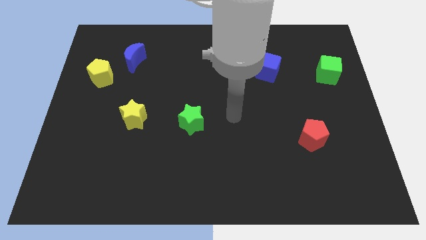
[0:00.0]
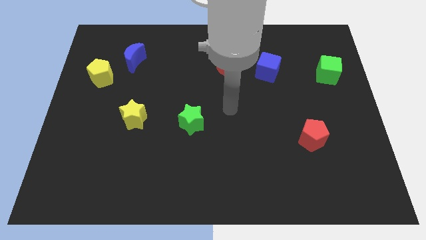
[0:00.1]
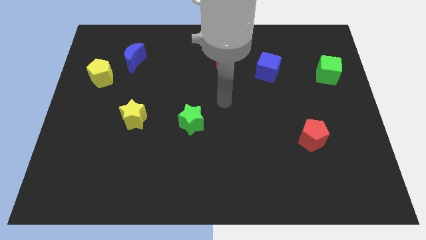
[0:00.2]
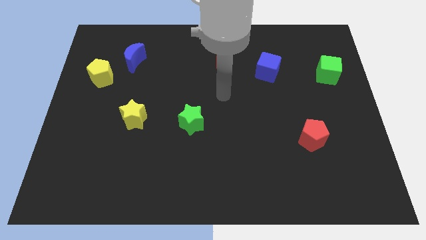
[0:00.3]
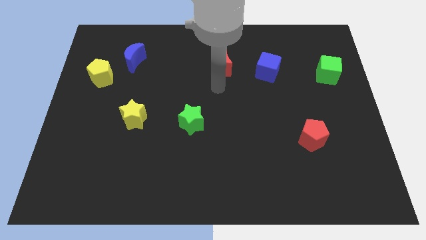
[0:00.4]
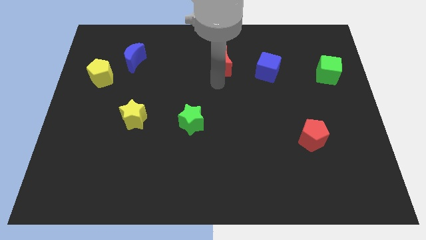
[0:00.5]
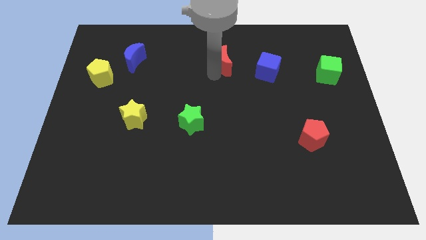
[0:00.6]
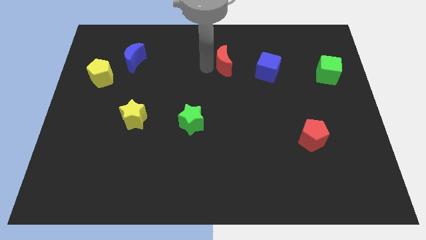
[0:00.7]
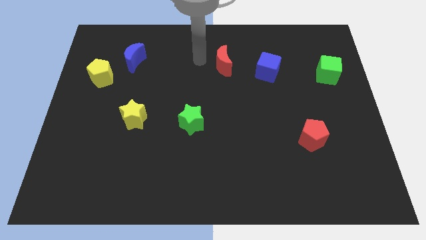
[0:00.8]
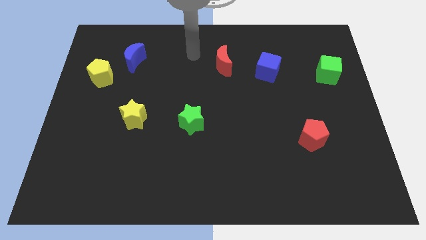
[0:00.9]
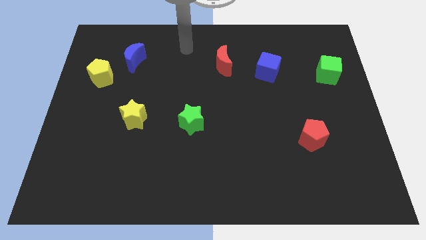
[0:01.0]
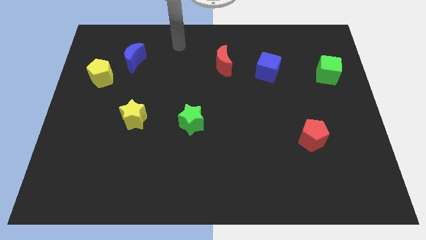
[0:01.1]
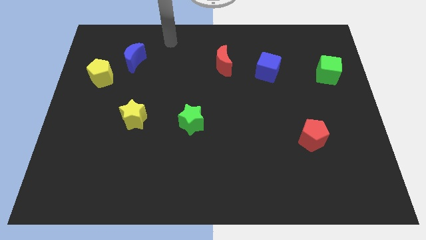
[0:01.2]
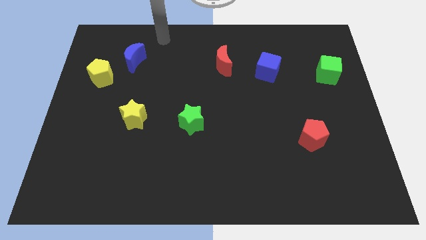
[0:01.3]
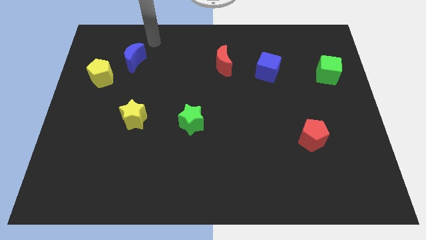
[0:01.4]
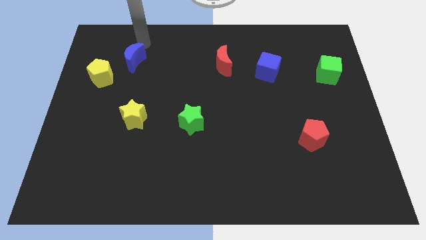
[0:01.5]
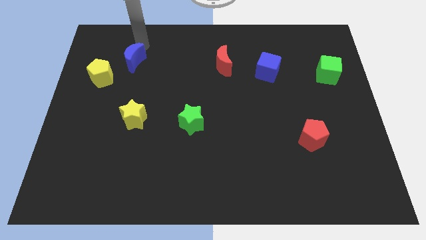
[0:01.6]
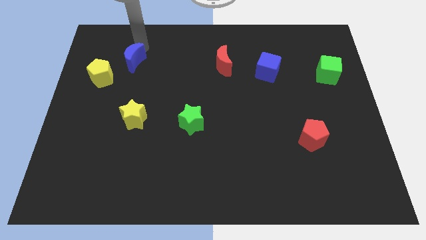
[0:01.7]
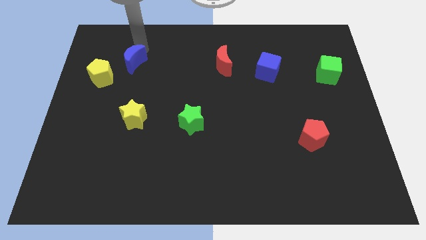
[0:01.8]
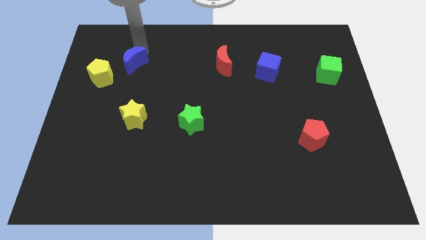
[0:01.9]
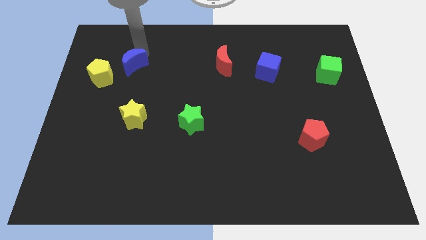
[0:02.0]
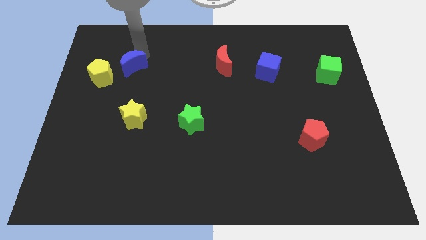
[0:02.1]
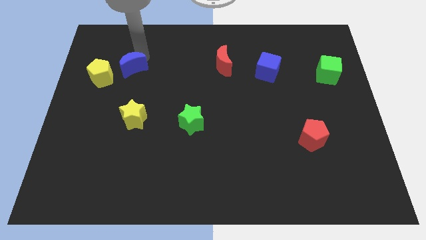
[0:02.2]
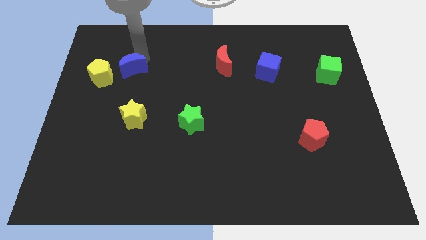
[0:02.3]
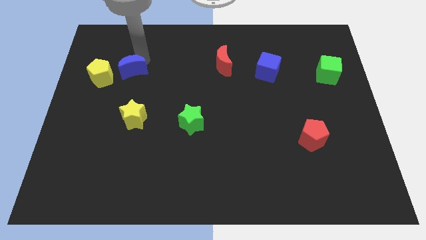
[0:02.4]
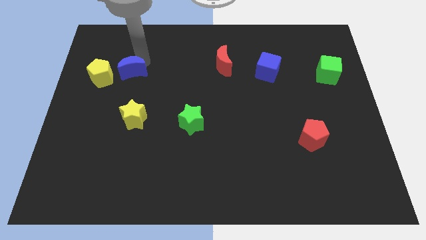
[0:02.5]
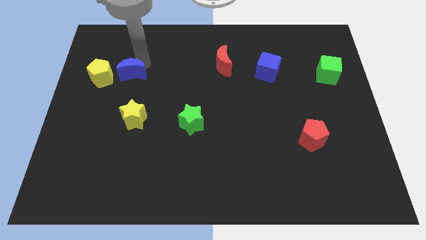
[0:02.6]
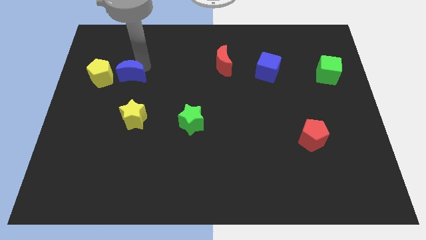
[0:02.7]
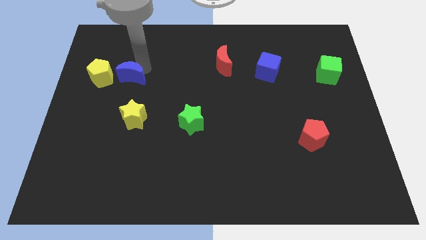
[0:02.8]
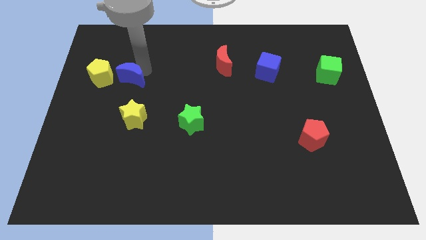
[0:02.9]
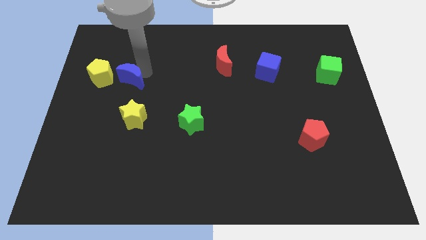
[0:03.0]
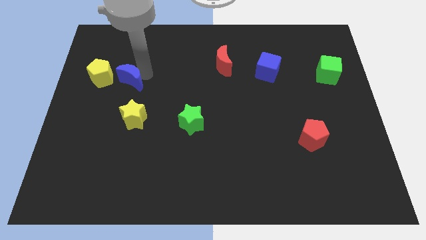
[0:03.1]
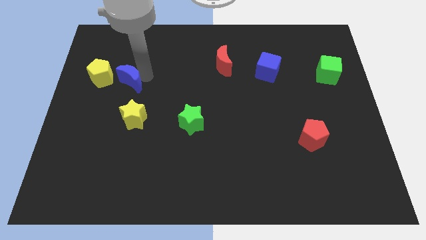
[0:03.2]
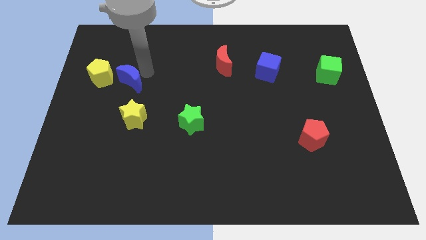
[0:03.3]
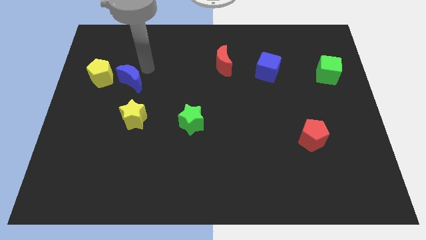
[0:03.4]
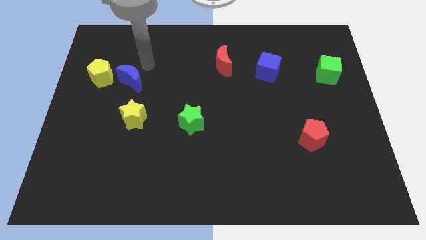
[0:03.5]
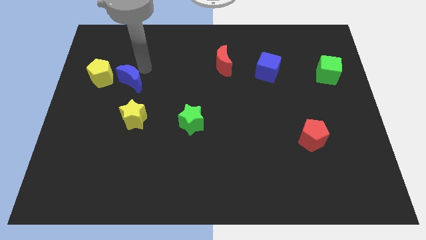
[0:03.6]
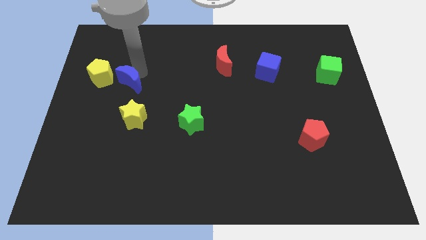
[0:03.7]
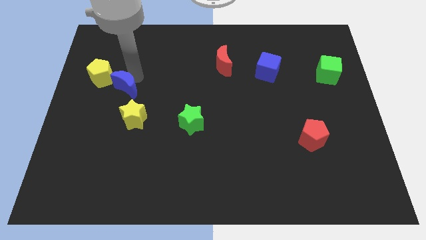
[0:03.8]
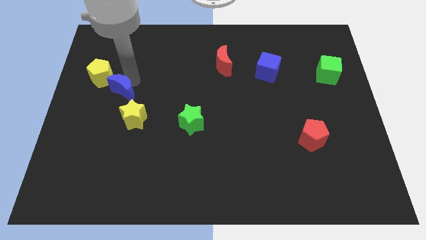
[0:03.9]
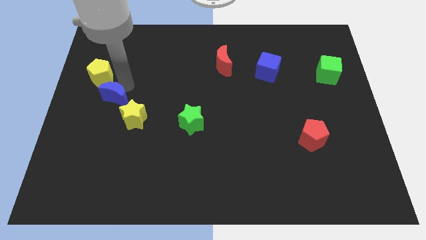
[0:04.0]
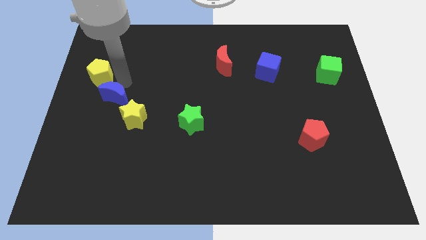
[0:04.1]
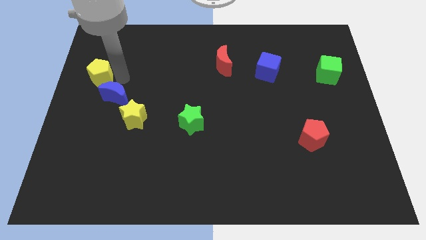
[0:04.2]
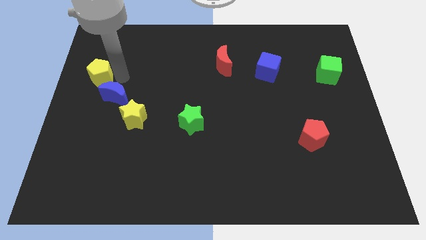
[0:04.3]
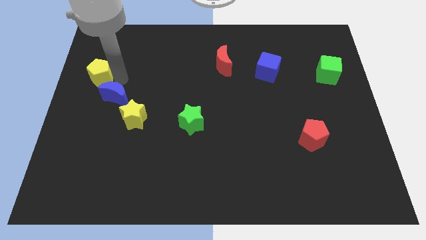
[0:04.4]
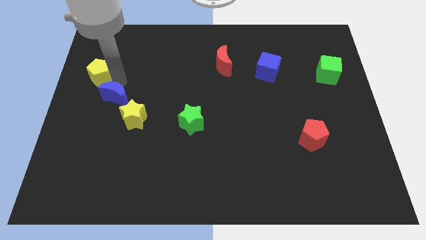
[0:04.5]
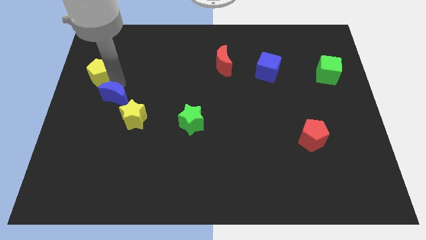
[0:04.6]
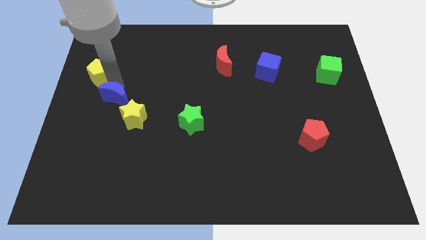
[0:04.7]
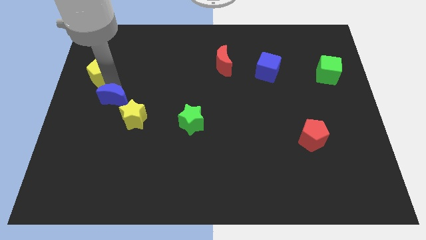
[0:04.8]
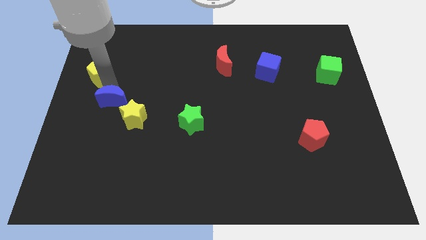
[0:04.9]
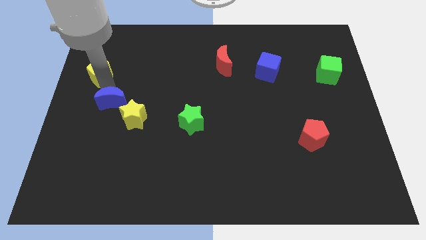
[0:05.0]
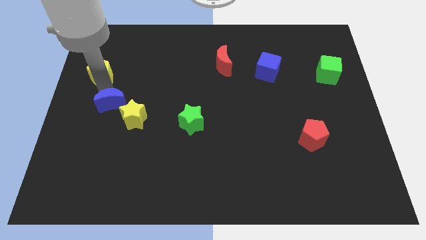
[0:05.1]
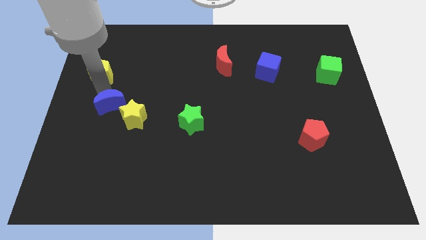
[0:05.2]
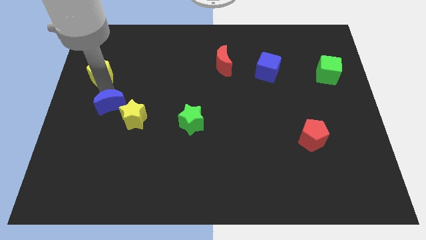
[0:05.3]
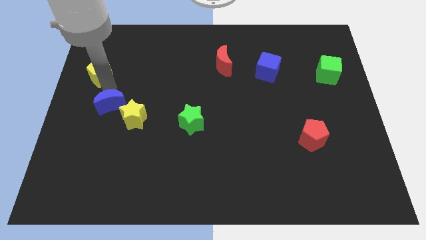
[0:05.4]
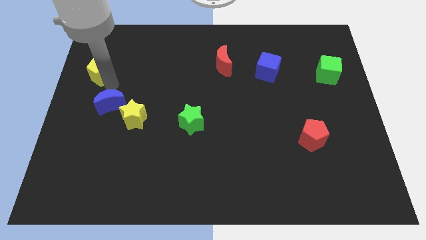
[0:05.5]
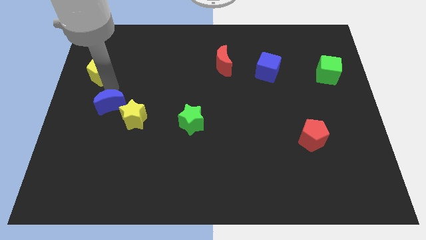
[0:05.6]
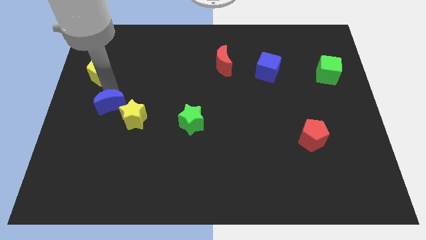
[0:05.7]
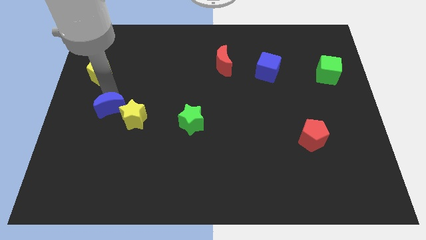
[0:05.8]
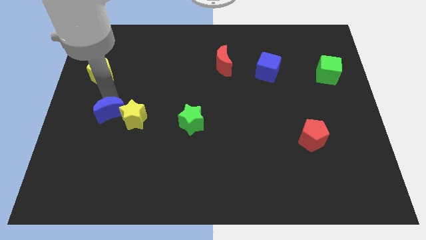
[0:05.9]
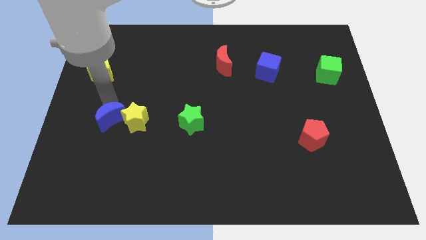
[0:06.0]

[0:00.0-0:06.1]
slide the blue moon to the bottom left of the yellow star

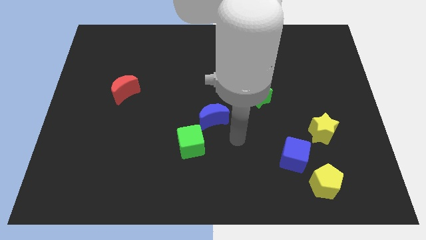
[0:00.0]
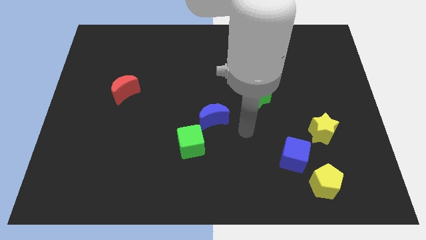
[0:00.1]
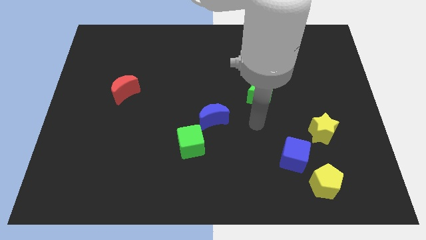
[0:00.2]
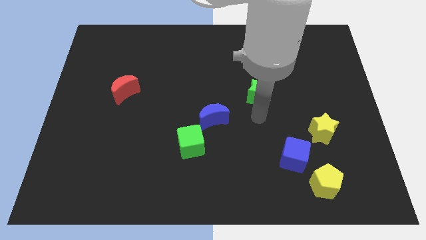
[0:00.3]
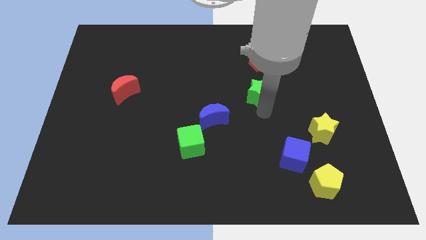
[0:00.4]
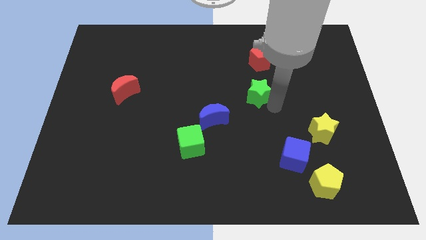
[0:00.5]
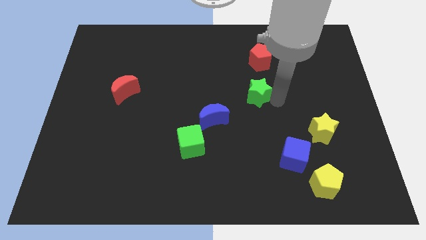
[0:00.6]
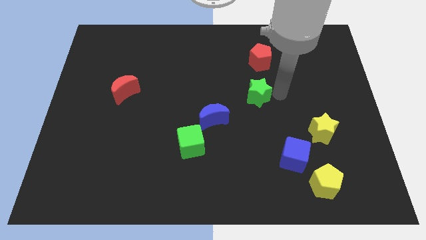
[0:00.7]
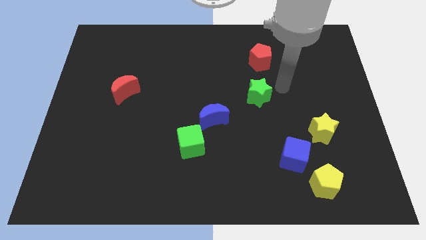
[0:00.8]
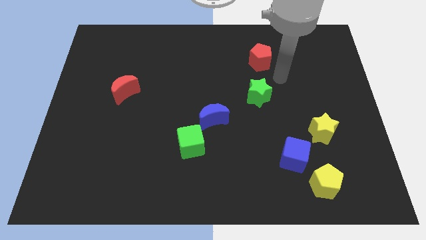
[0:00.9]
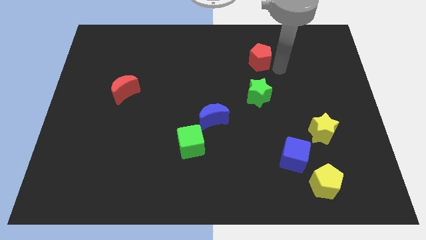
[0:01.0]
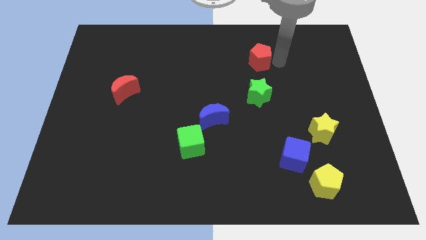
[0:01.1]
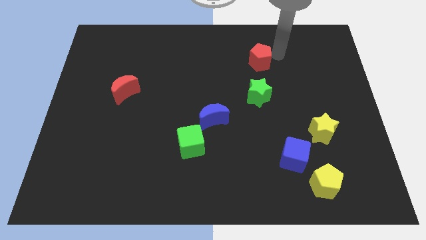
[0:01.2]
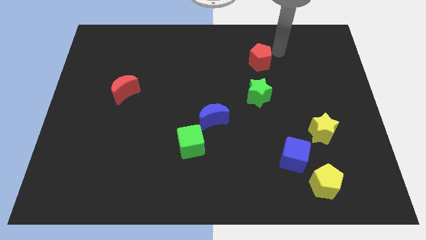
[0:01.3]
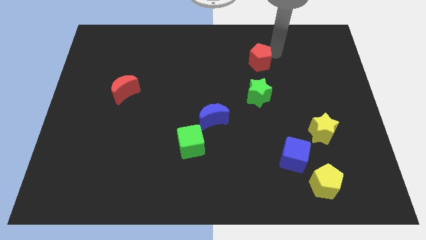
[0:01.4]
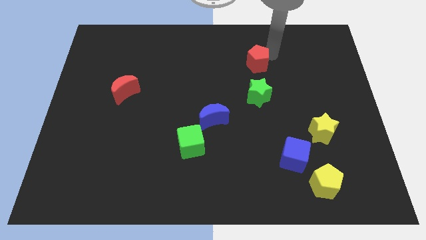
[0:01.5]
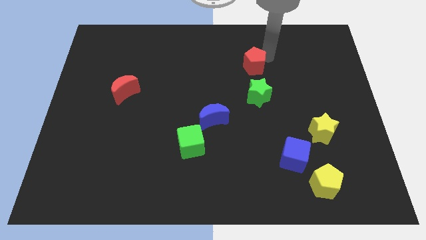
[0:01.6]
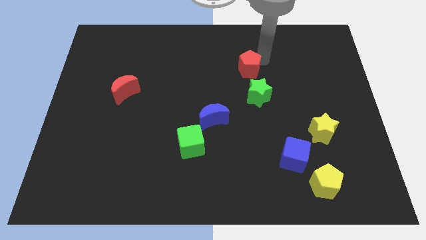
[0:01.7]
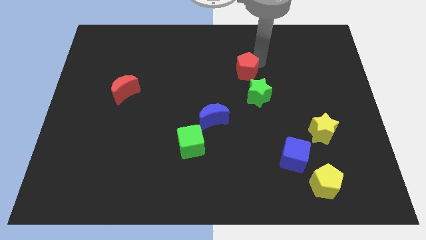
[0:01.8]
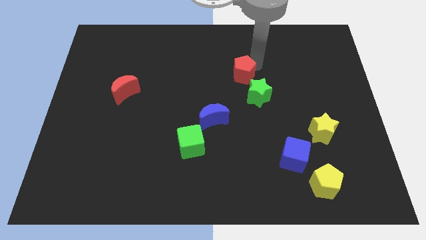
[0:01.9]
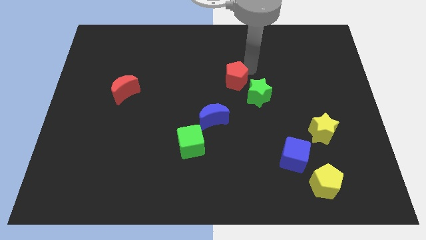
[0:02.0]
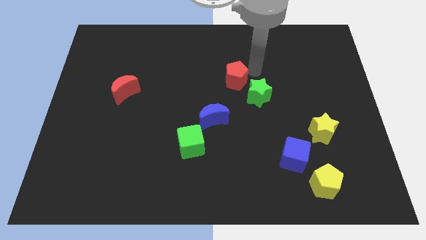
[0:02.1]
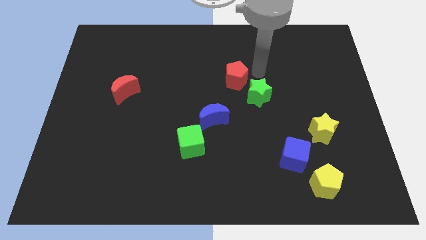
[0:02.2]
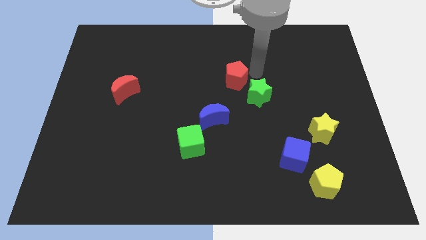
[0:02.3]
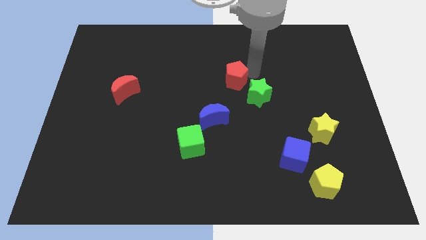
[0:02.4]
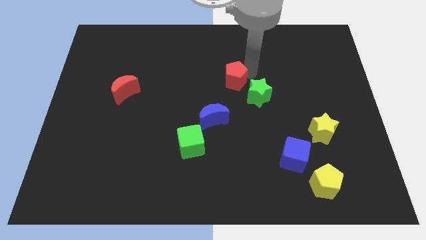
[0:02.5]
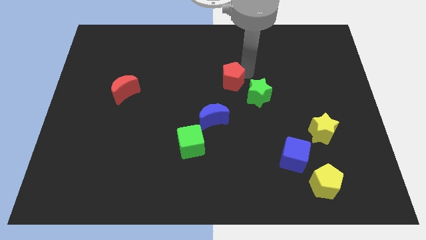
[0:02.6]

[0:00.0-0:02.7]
slide the red pentagon above the blue moon
